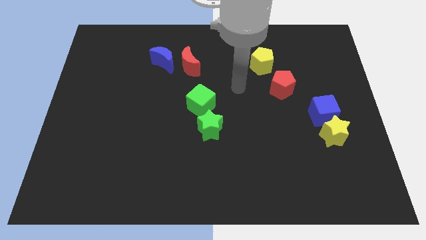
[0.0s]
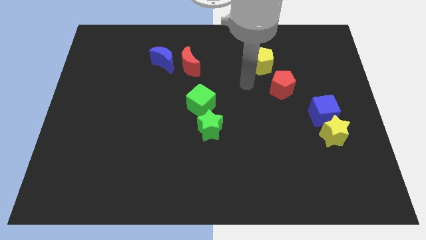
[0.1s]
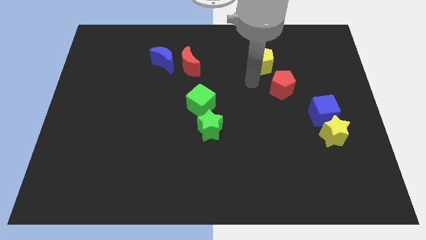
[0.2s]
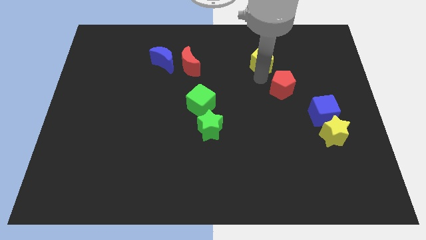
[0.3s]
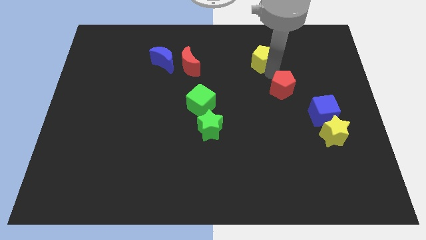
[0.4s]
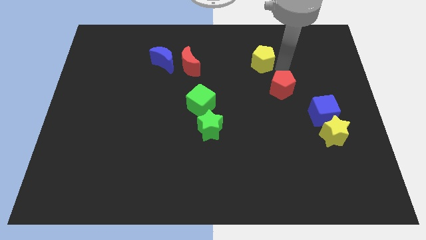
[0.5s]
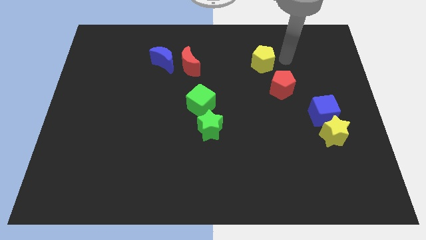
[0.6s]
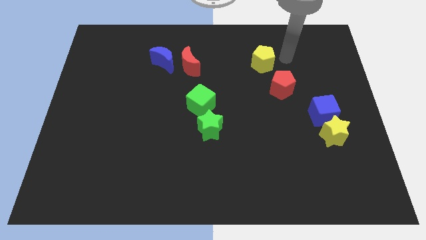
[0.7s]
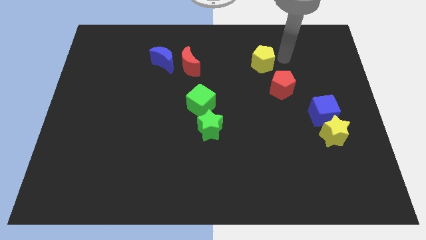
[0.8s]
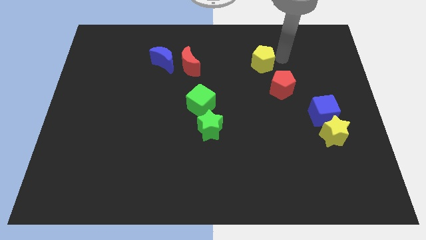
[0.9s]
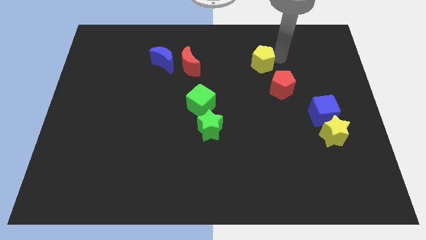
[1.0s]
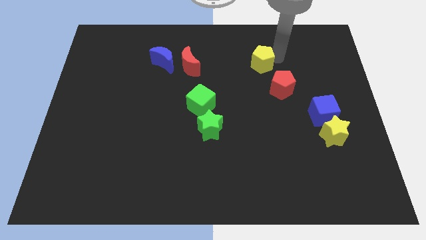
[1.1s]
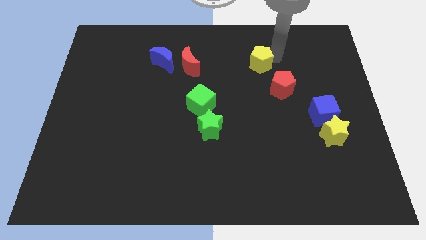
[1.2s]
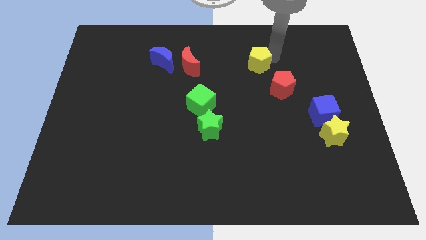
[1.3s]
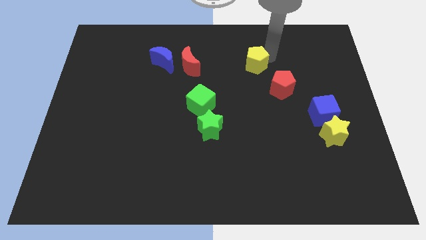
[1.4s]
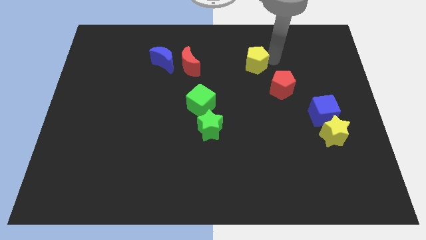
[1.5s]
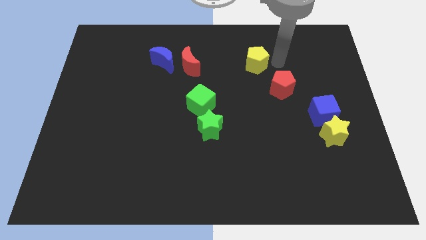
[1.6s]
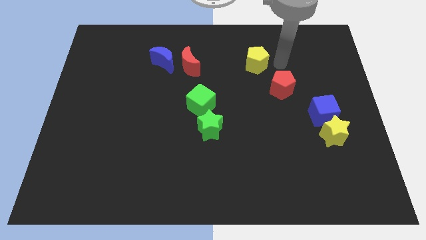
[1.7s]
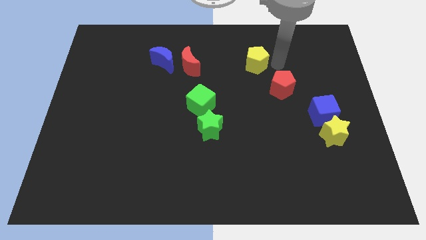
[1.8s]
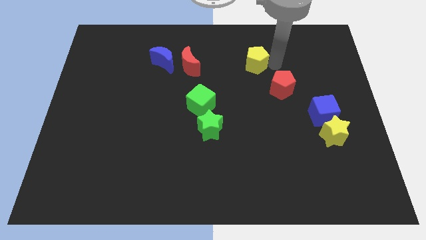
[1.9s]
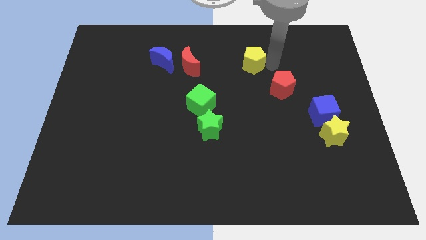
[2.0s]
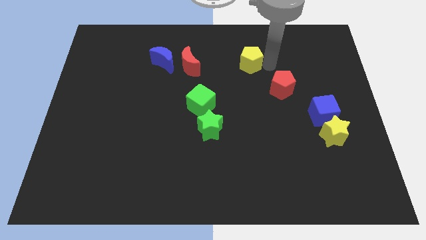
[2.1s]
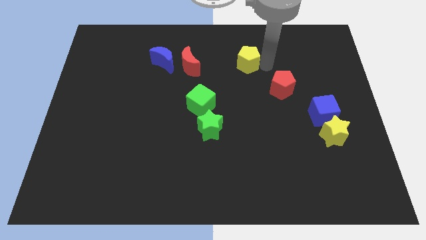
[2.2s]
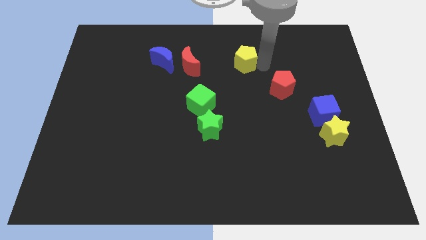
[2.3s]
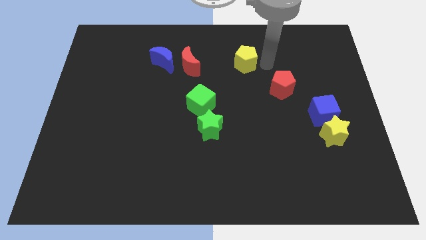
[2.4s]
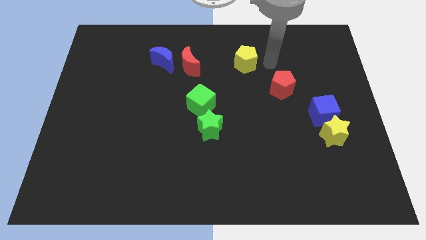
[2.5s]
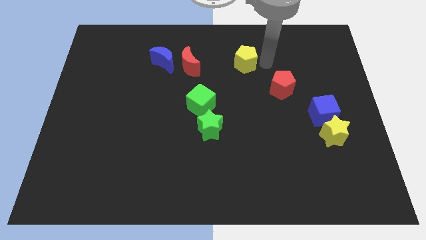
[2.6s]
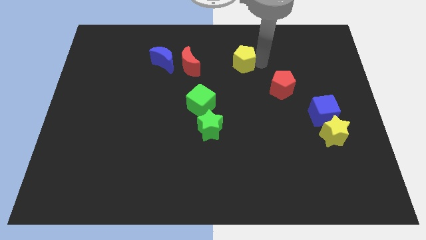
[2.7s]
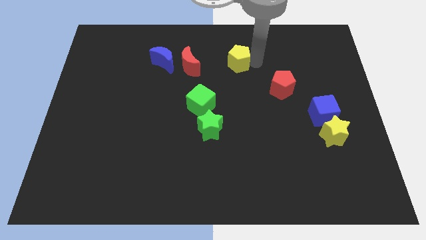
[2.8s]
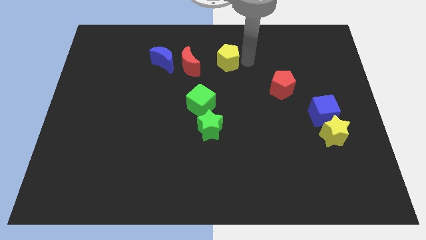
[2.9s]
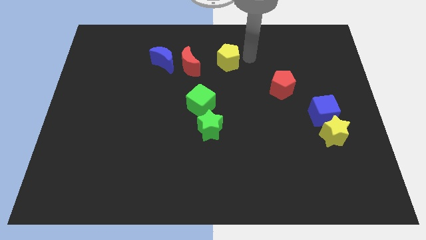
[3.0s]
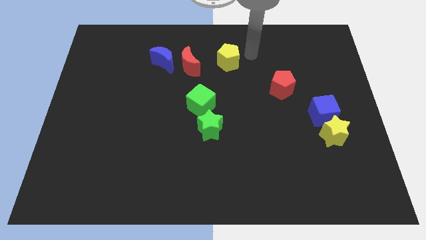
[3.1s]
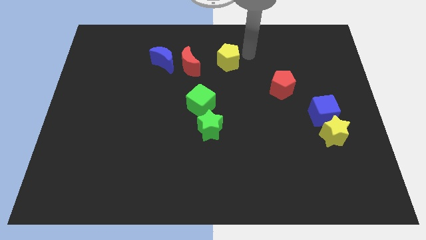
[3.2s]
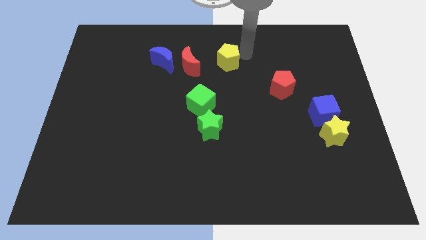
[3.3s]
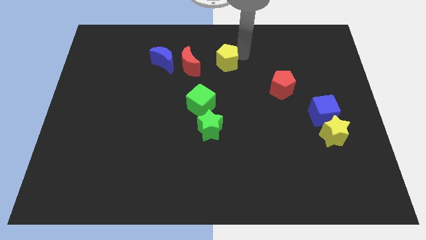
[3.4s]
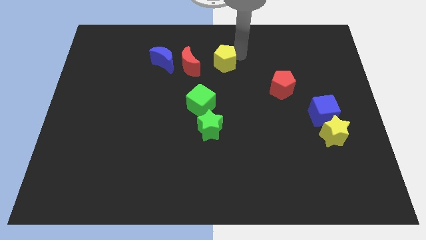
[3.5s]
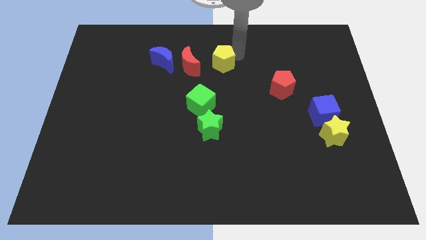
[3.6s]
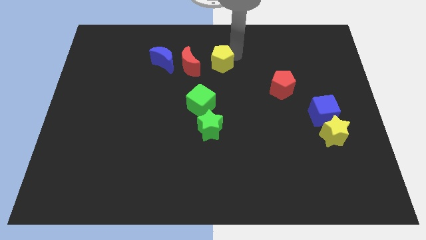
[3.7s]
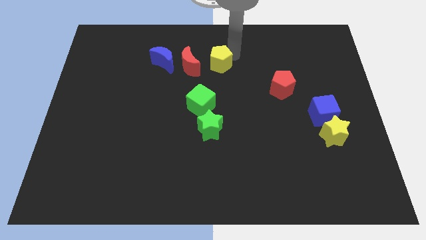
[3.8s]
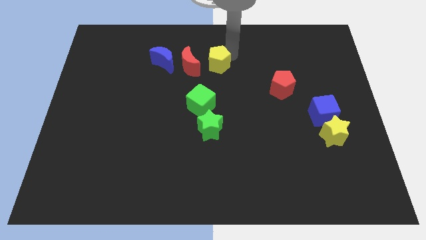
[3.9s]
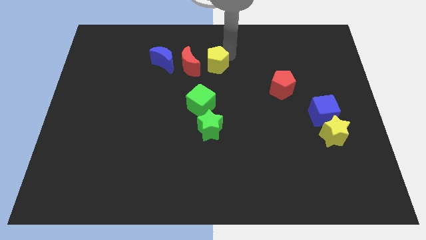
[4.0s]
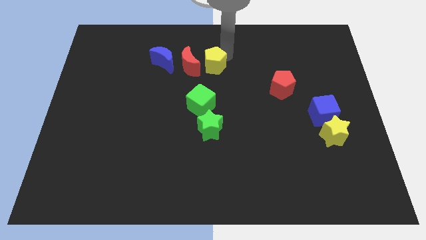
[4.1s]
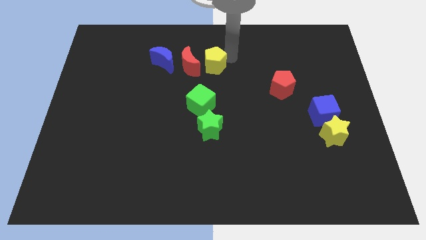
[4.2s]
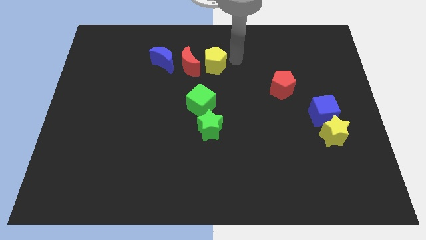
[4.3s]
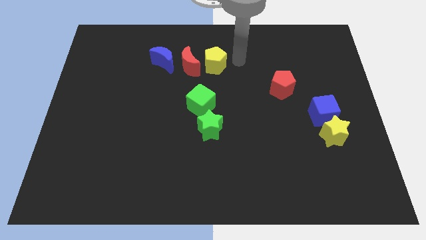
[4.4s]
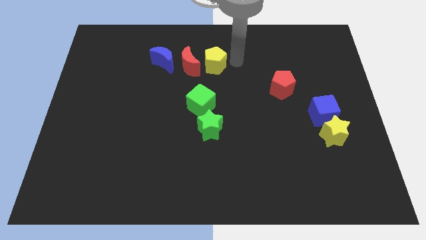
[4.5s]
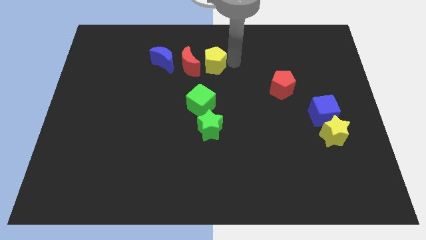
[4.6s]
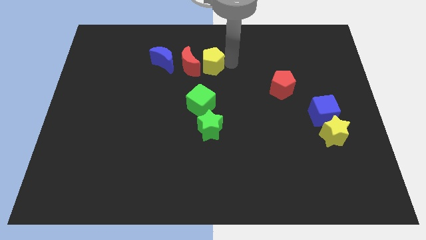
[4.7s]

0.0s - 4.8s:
slide the yellow pentagon towards the red moon

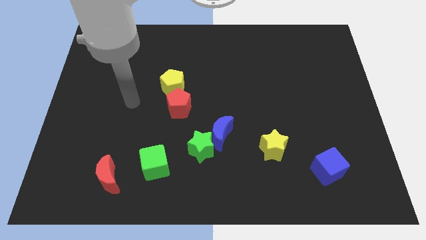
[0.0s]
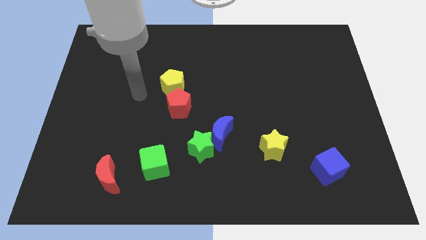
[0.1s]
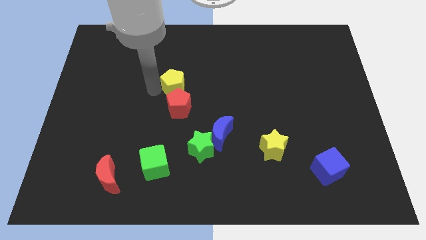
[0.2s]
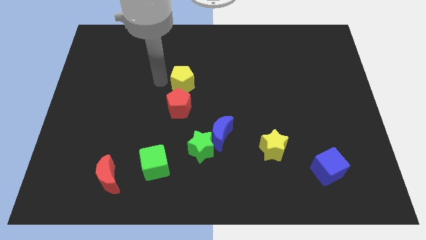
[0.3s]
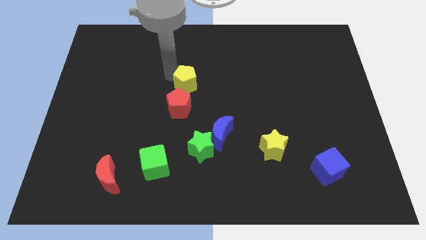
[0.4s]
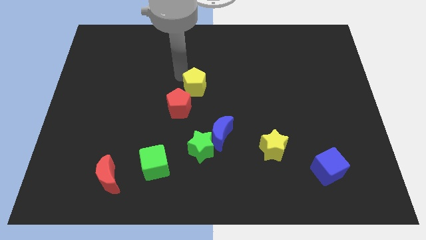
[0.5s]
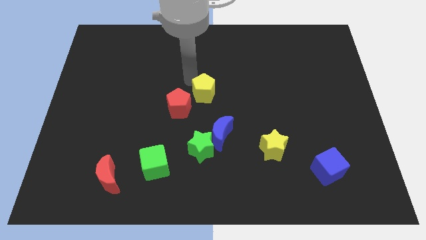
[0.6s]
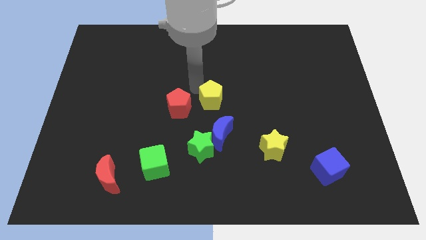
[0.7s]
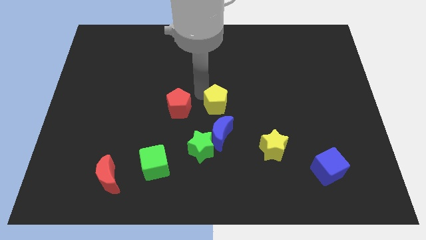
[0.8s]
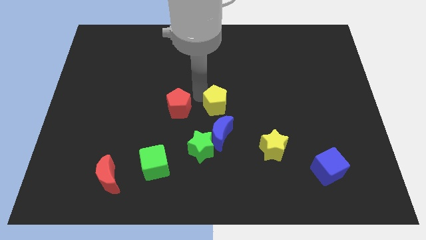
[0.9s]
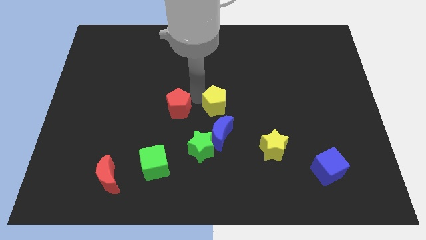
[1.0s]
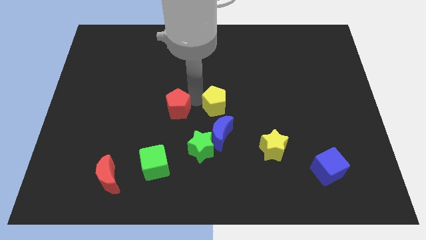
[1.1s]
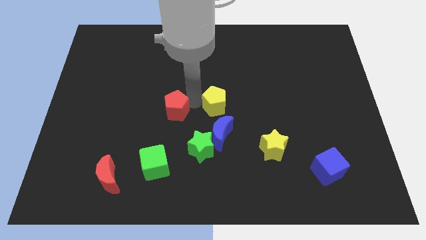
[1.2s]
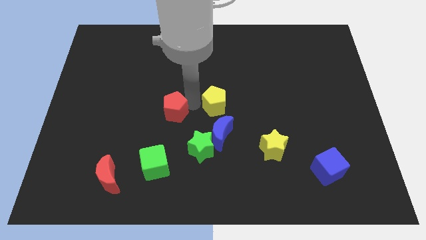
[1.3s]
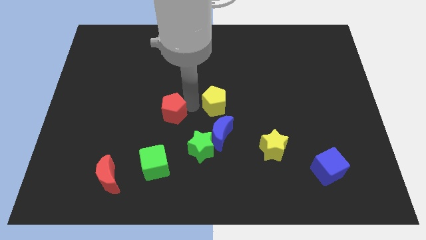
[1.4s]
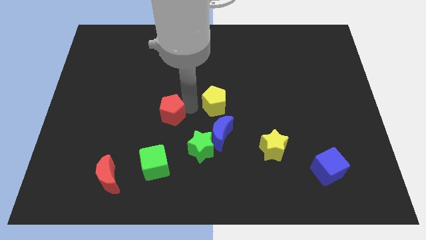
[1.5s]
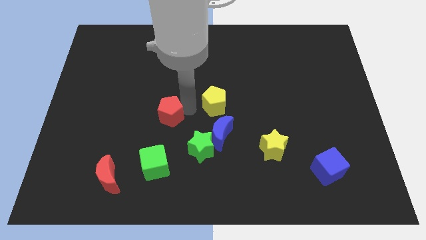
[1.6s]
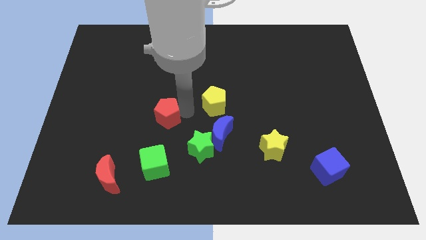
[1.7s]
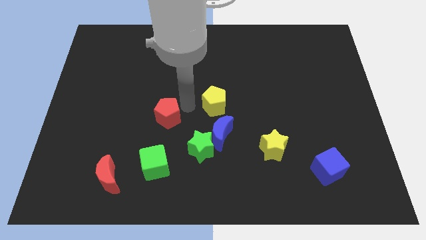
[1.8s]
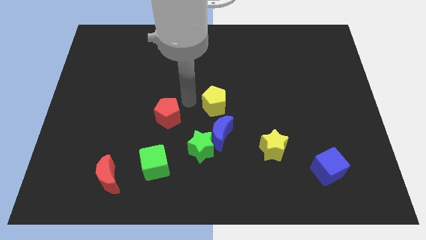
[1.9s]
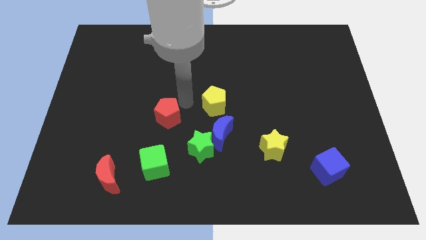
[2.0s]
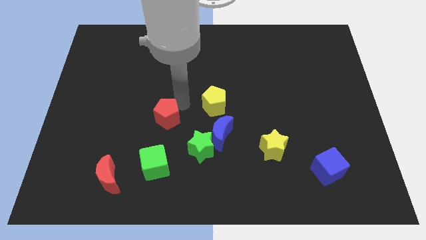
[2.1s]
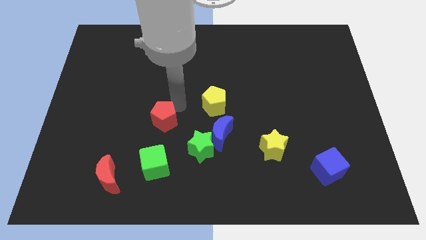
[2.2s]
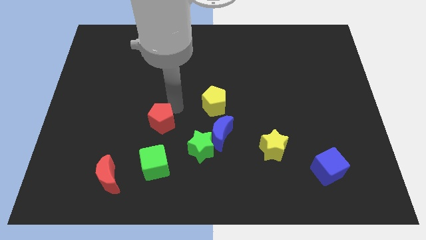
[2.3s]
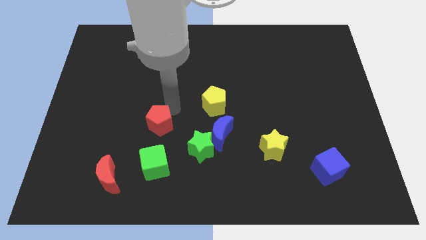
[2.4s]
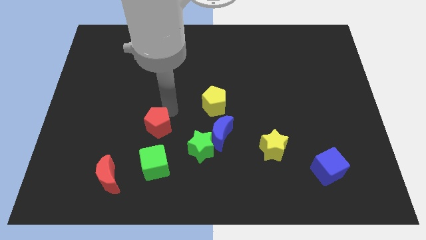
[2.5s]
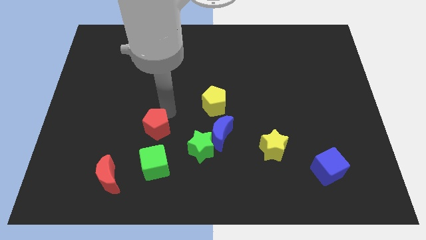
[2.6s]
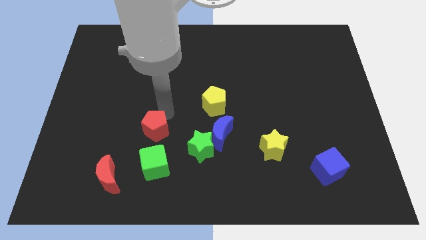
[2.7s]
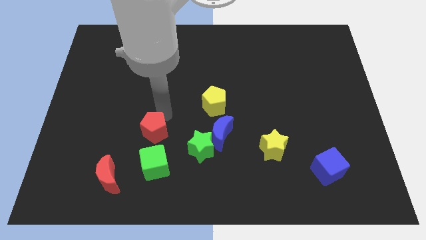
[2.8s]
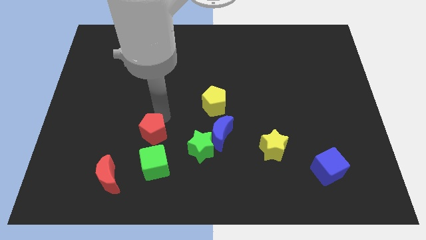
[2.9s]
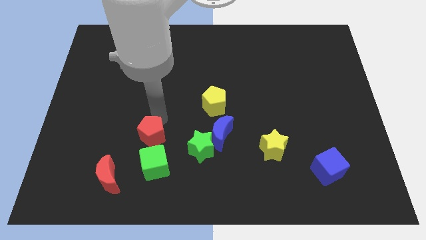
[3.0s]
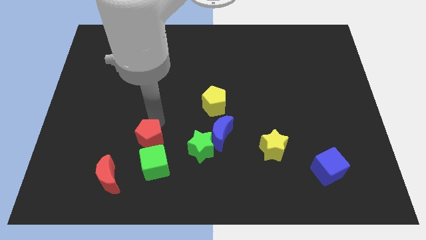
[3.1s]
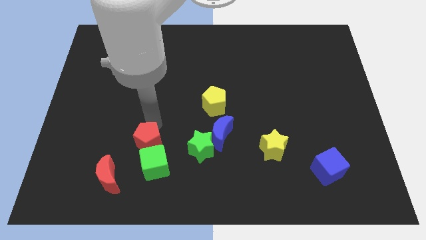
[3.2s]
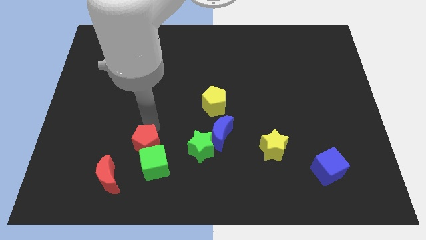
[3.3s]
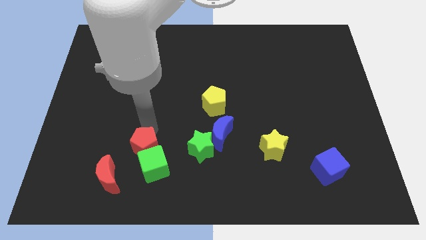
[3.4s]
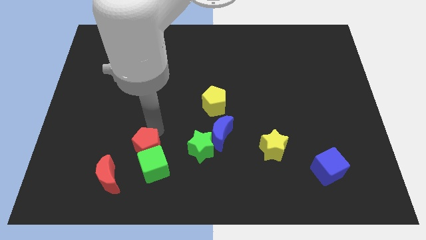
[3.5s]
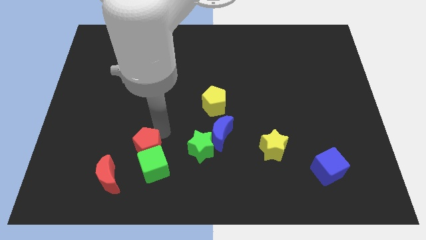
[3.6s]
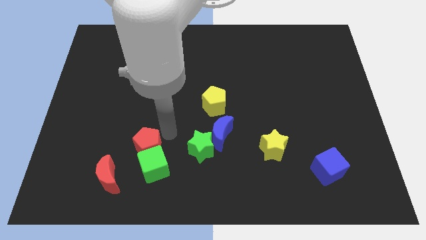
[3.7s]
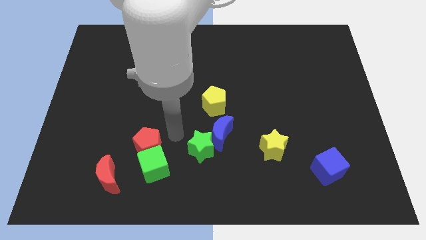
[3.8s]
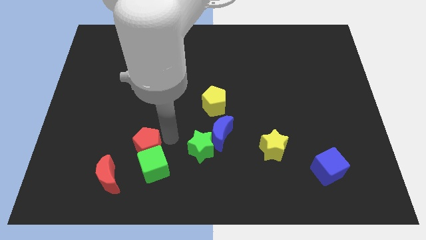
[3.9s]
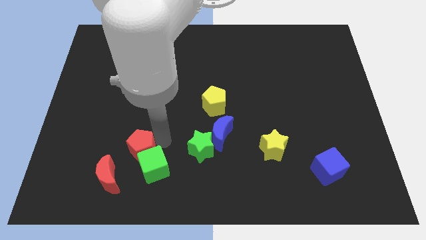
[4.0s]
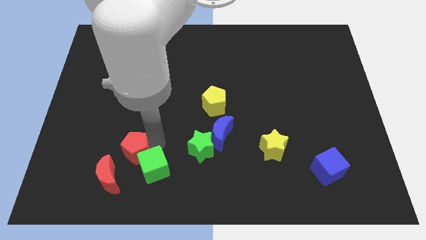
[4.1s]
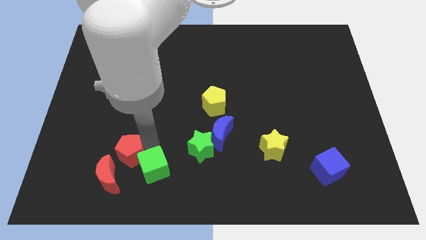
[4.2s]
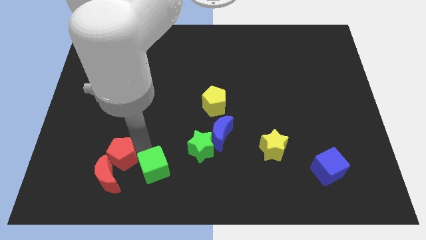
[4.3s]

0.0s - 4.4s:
put the red pentagon next to the red moon
